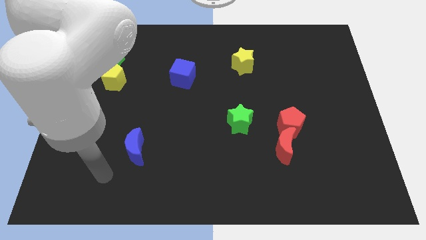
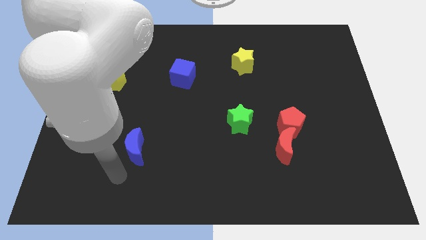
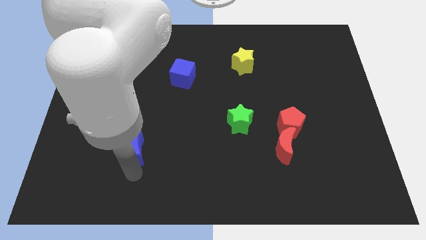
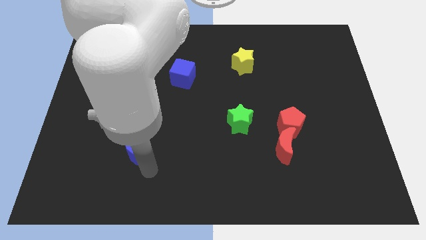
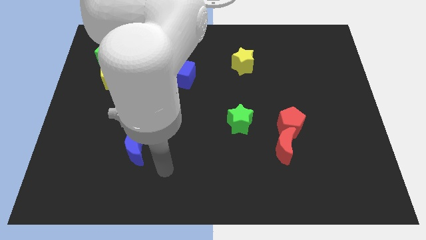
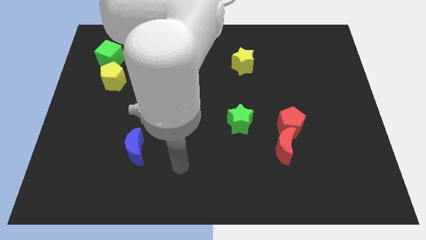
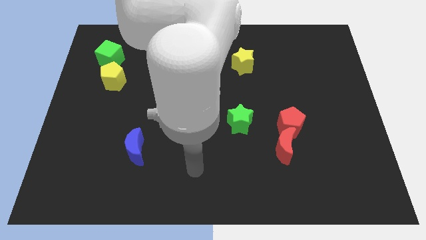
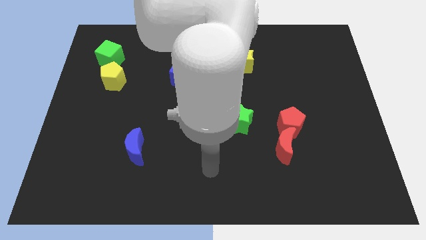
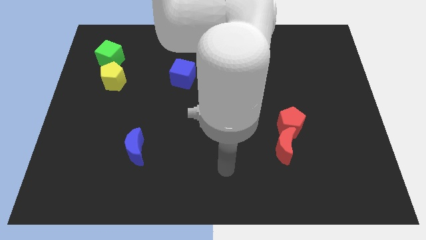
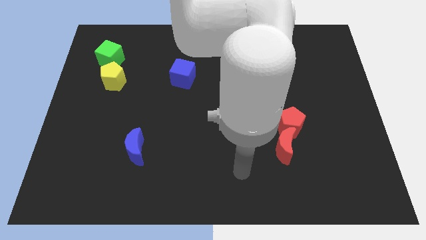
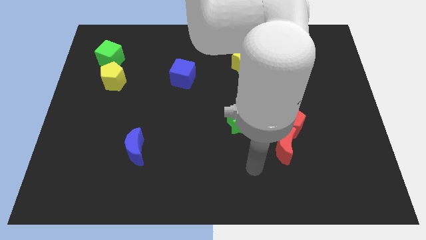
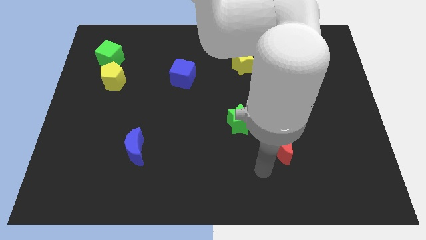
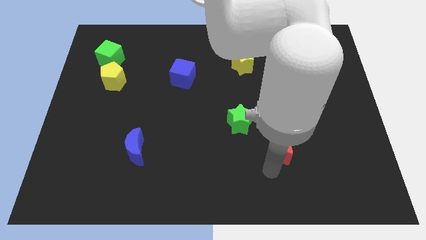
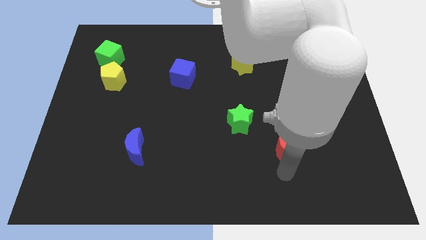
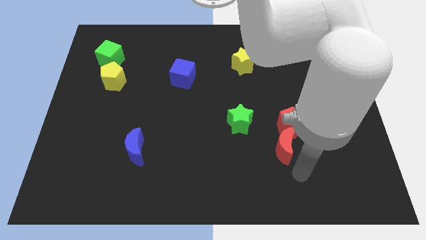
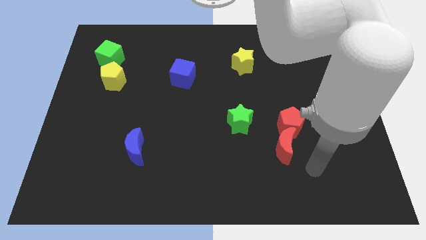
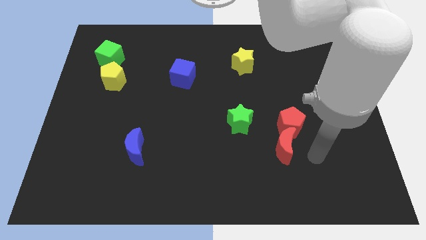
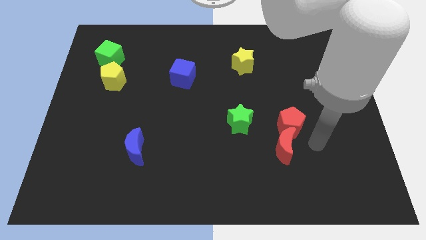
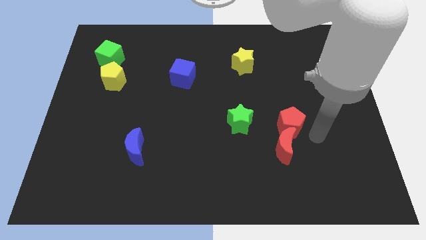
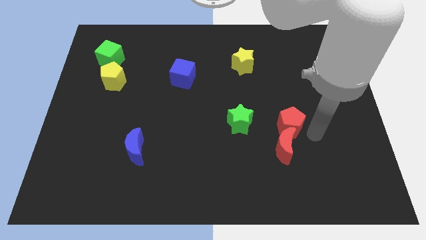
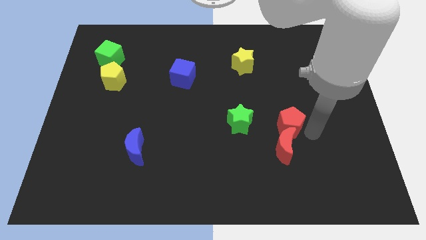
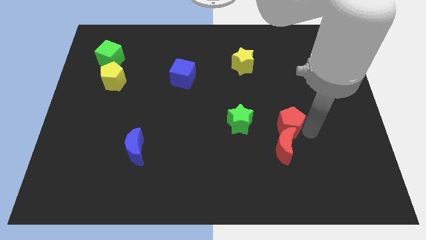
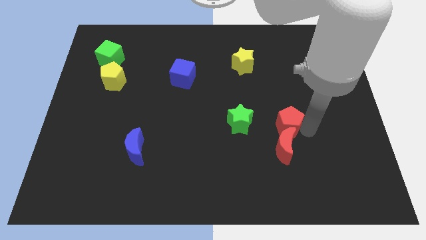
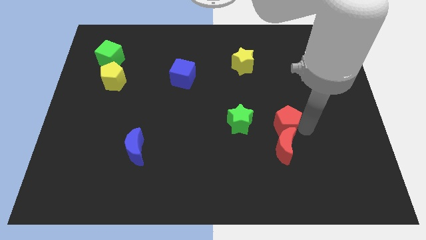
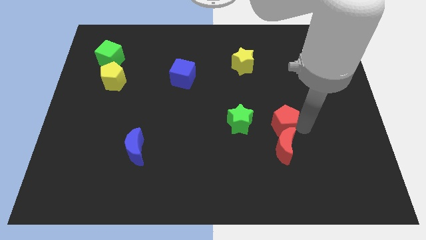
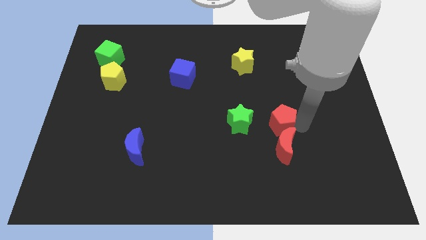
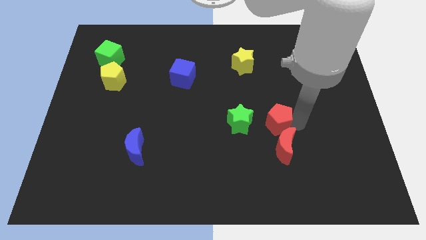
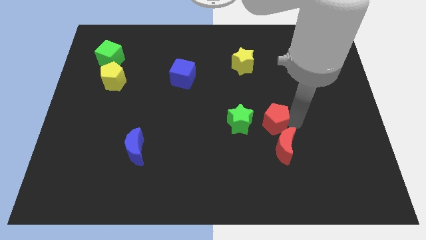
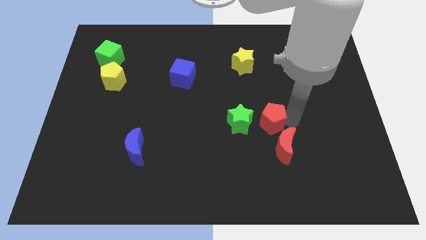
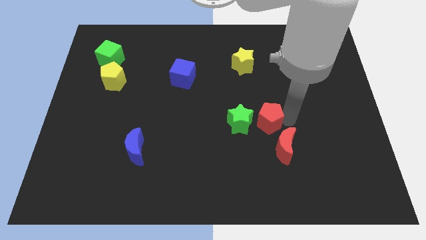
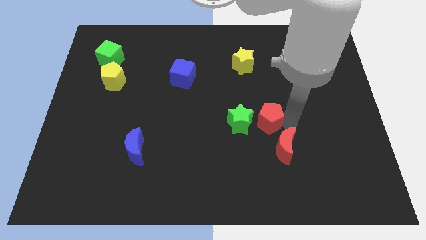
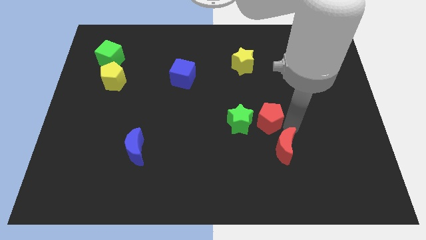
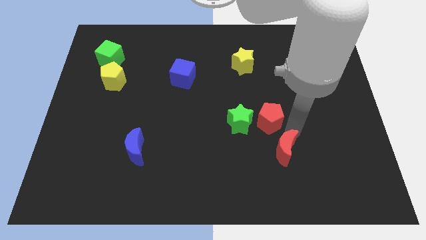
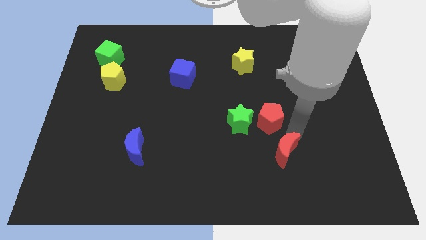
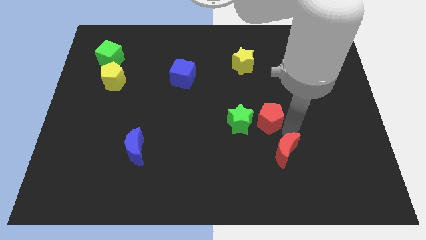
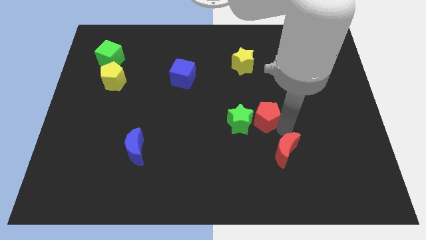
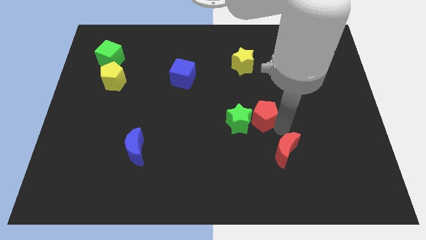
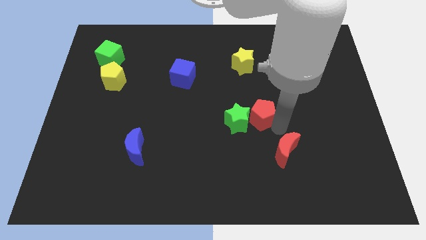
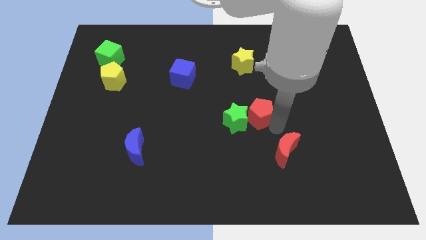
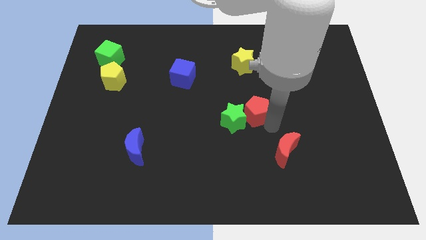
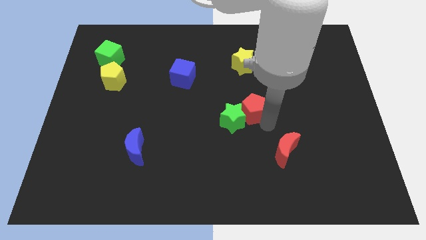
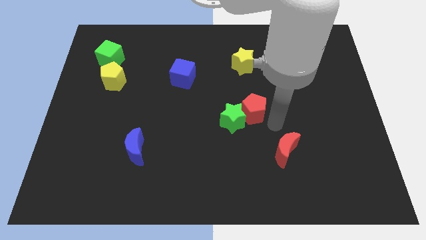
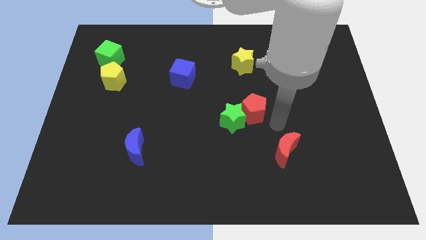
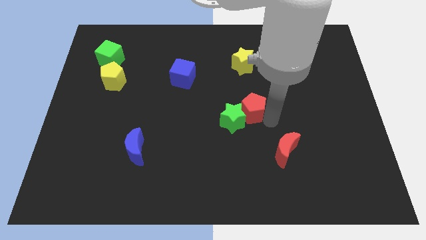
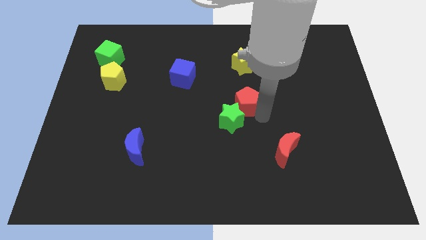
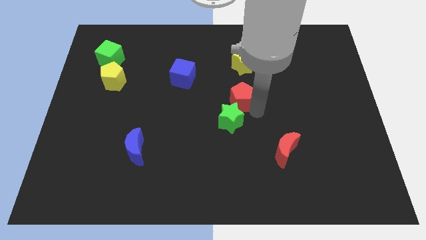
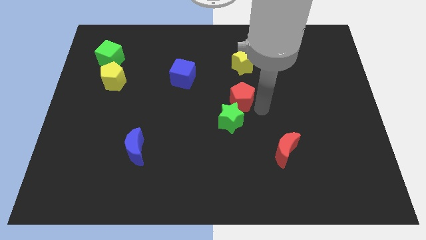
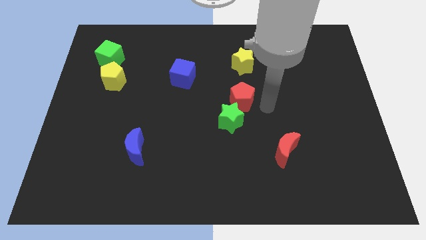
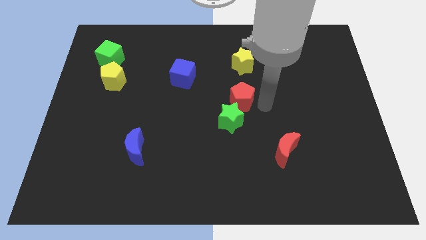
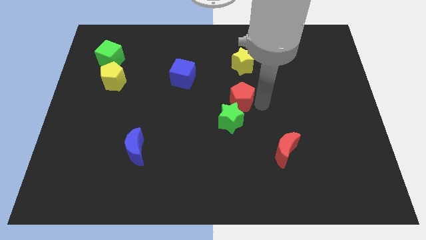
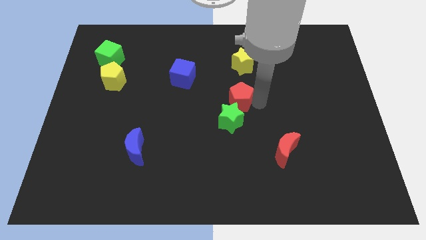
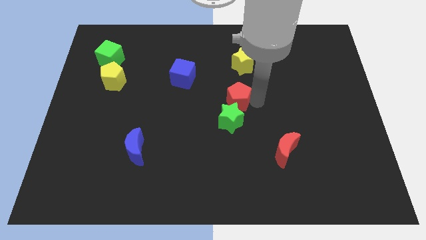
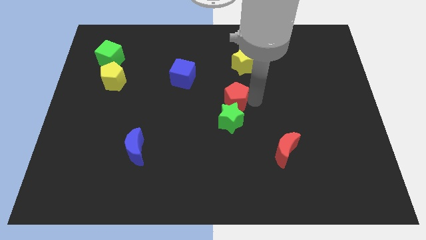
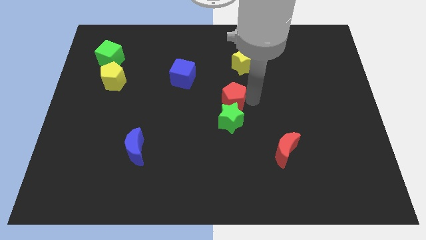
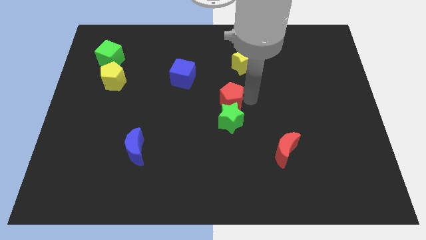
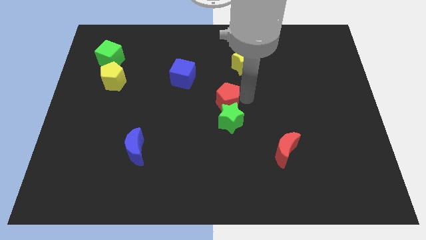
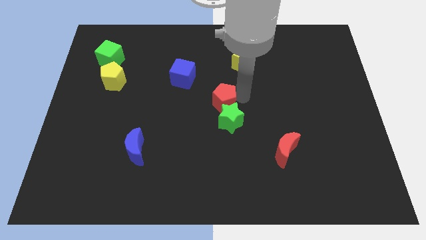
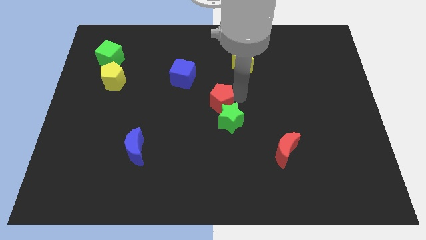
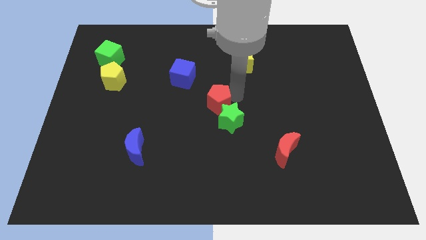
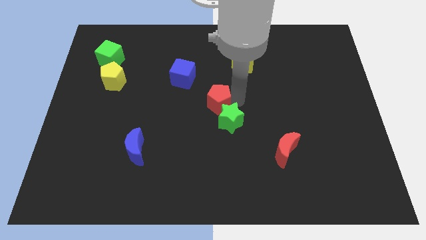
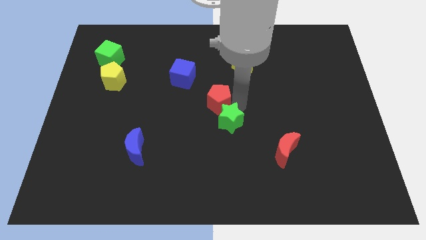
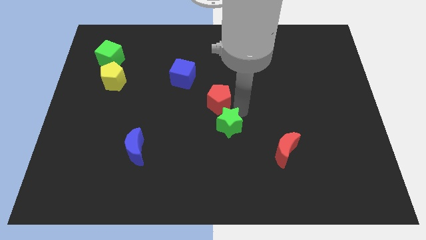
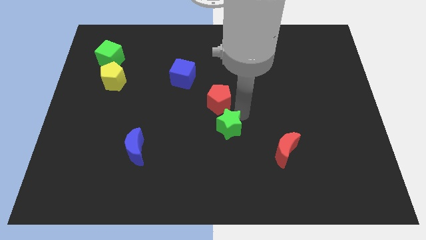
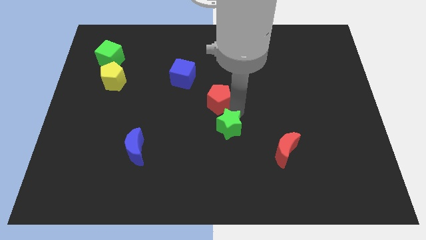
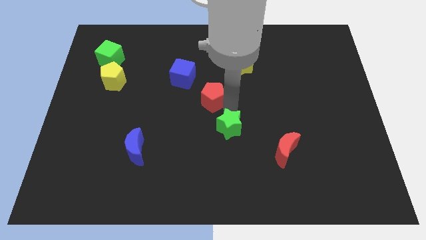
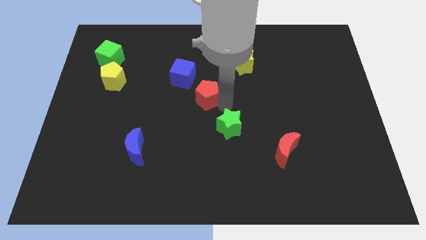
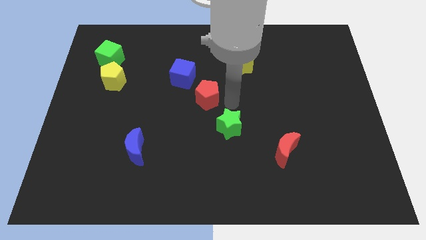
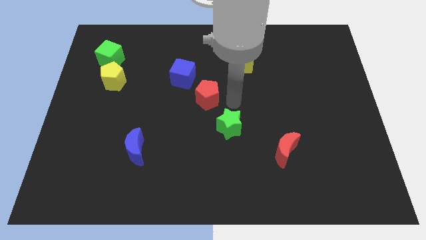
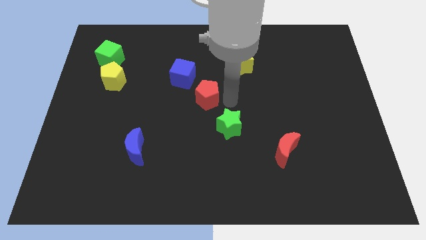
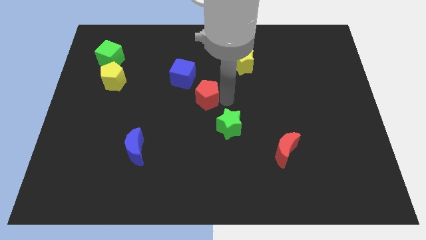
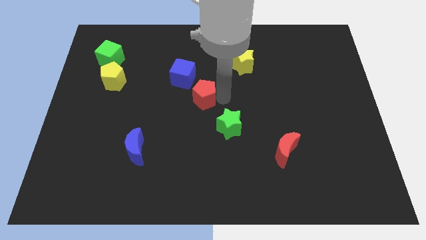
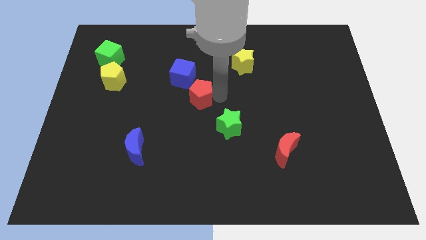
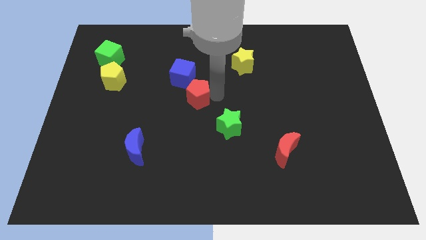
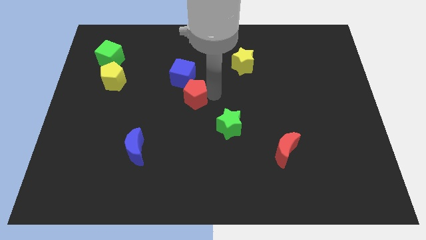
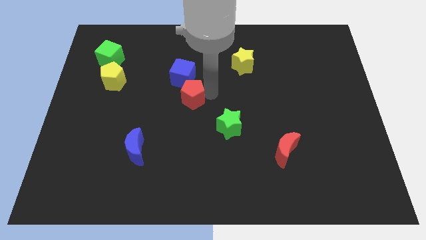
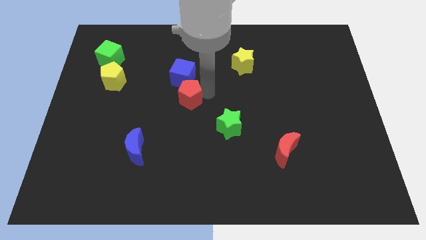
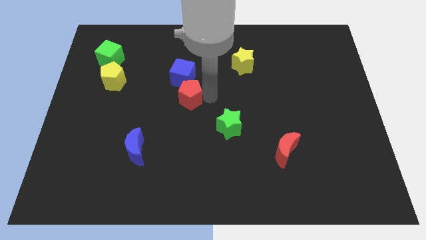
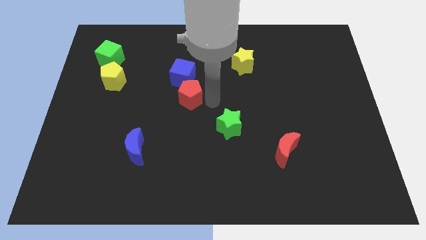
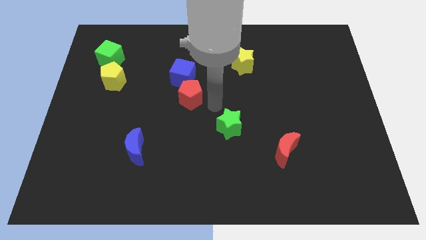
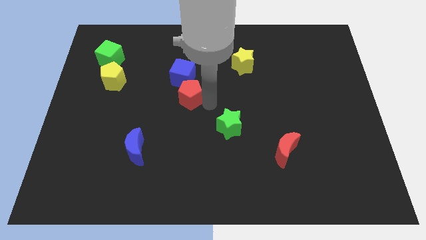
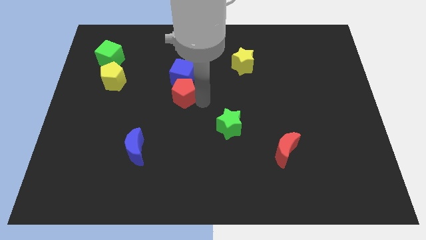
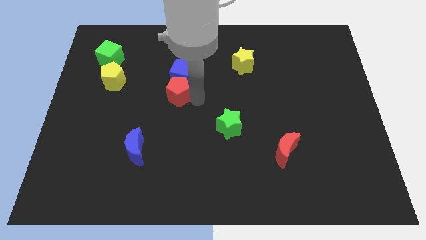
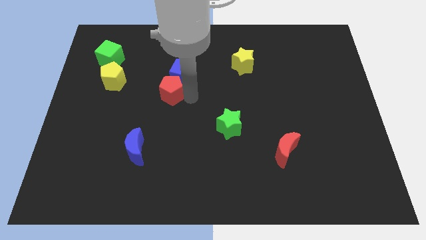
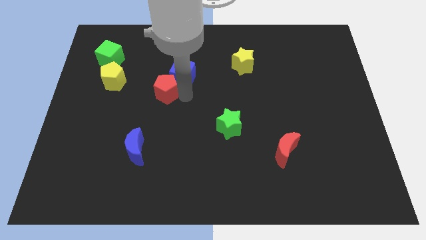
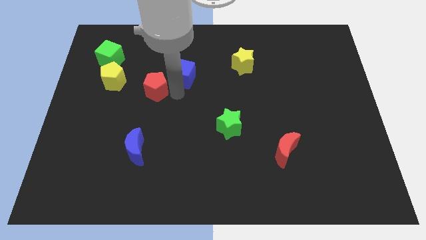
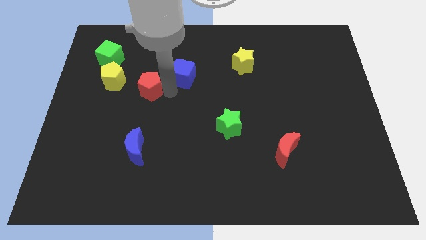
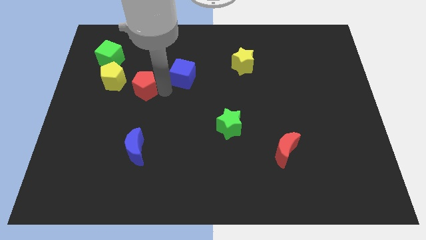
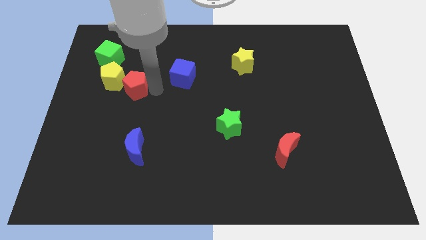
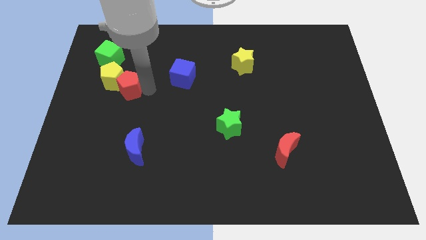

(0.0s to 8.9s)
slide the red pentagon close to the yellow pentagon
